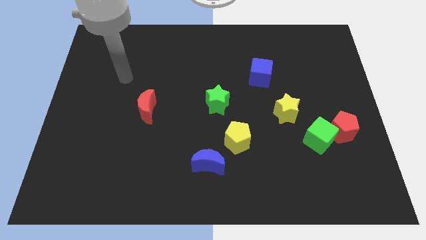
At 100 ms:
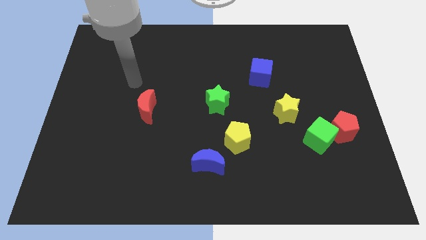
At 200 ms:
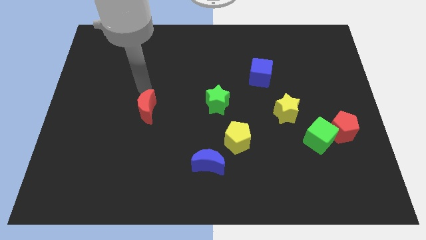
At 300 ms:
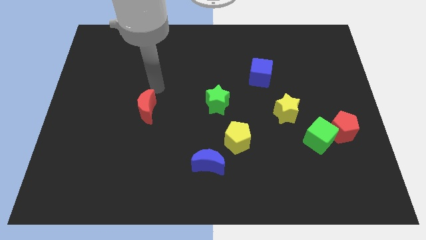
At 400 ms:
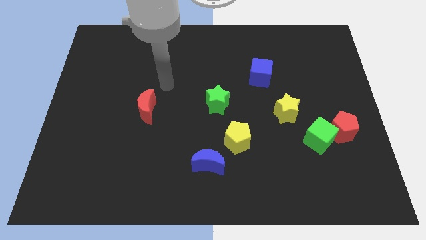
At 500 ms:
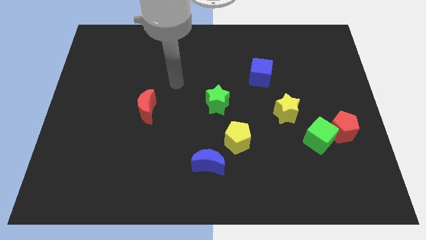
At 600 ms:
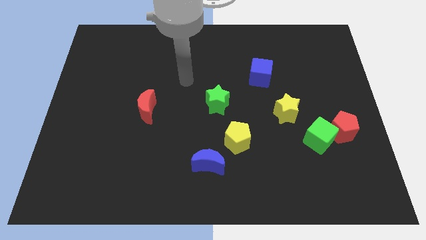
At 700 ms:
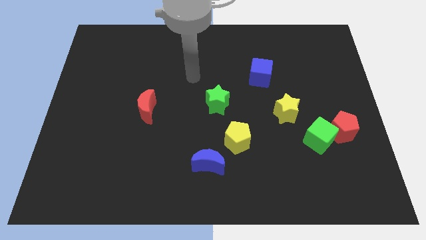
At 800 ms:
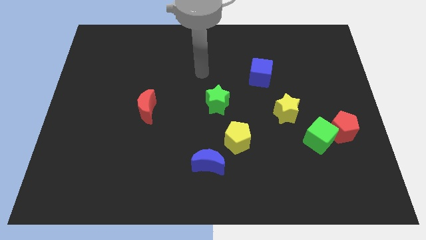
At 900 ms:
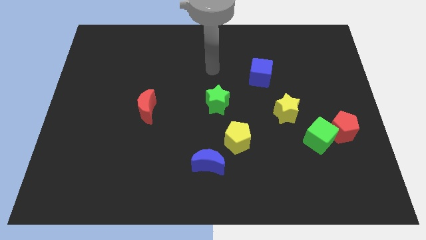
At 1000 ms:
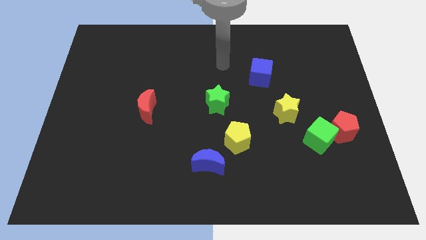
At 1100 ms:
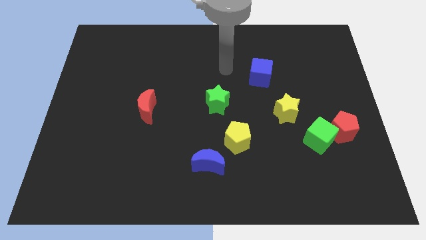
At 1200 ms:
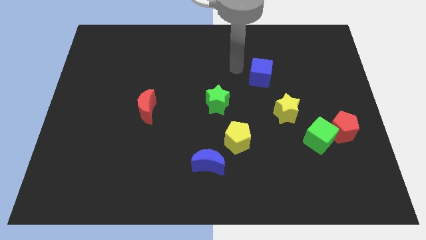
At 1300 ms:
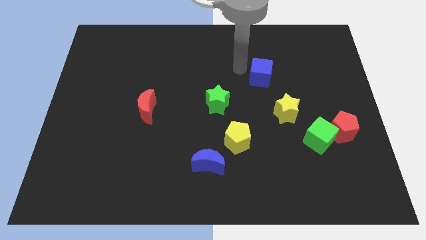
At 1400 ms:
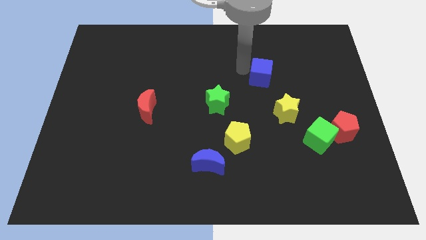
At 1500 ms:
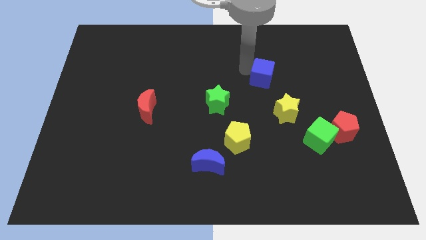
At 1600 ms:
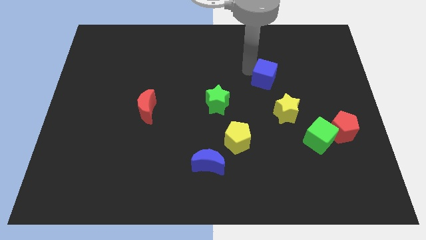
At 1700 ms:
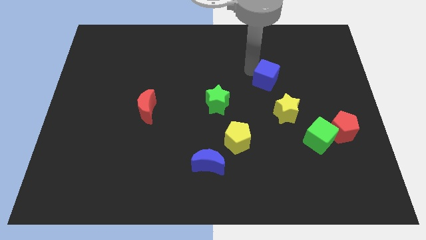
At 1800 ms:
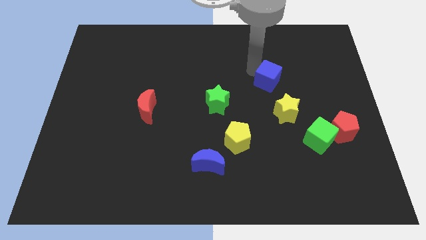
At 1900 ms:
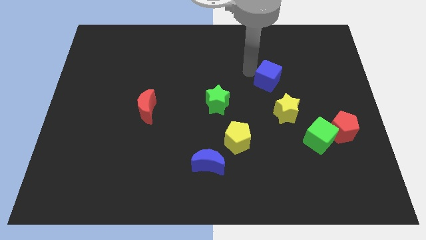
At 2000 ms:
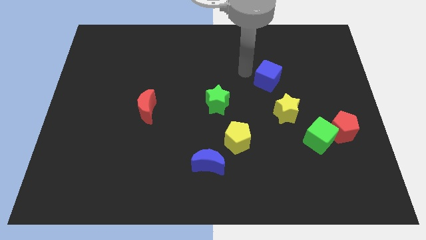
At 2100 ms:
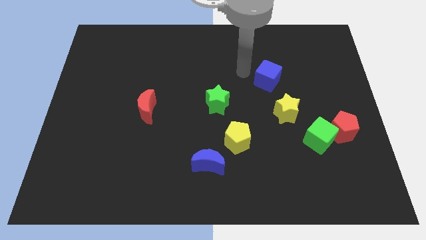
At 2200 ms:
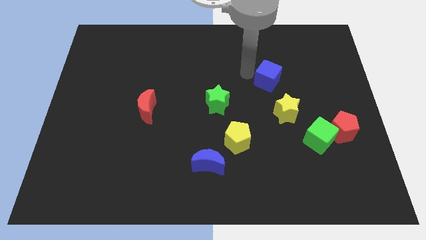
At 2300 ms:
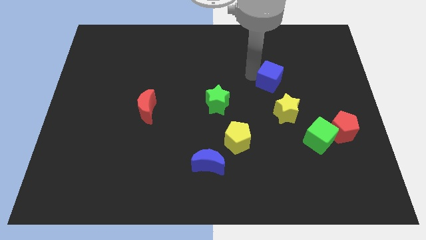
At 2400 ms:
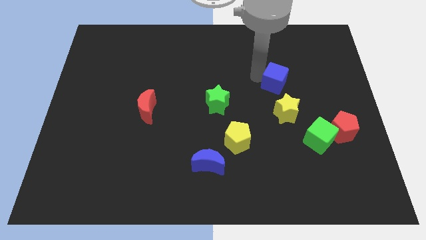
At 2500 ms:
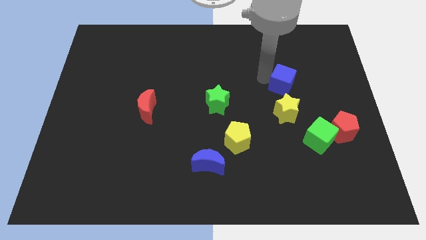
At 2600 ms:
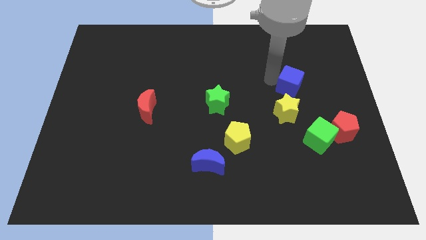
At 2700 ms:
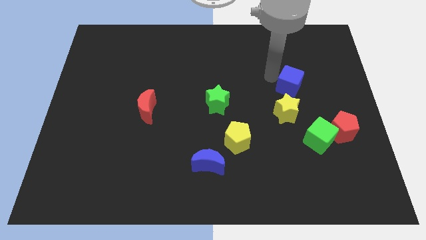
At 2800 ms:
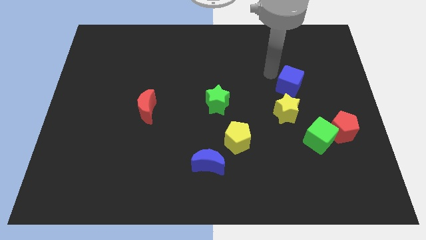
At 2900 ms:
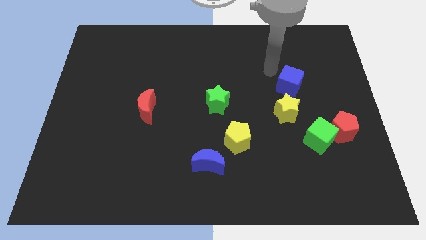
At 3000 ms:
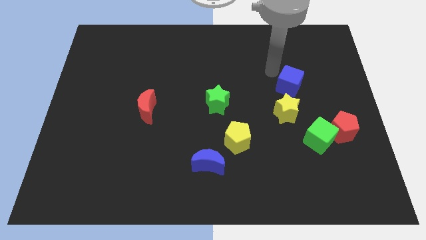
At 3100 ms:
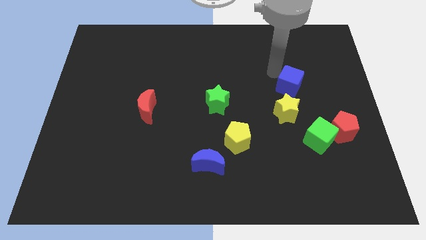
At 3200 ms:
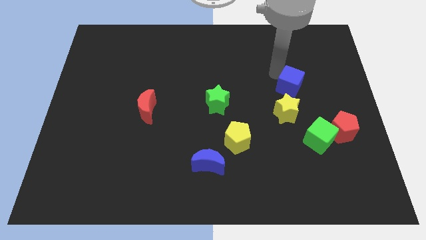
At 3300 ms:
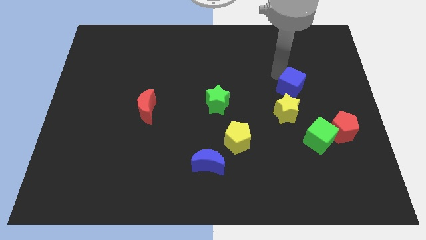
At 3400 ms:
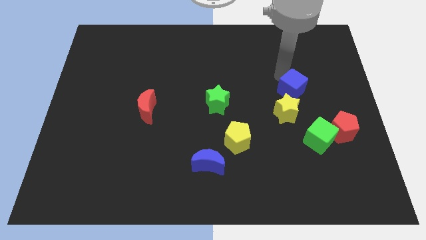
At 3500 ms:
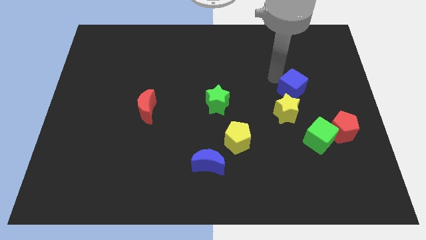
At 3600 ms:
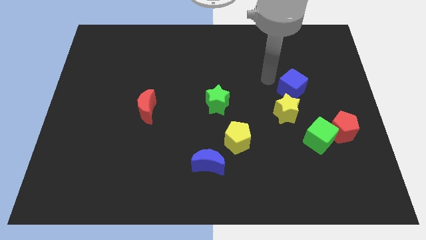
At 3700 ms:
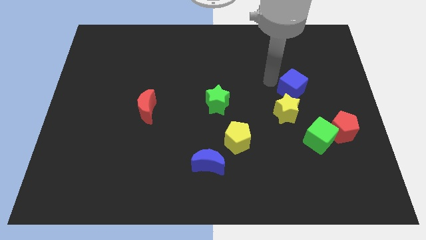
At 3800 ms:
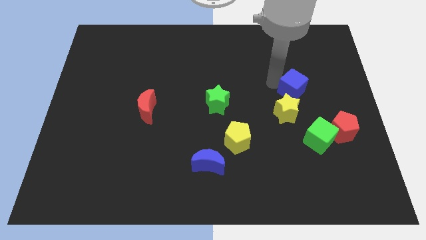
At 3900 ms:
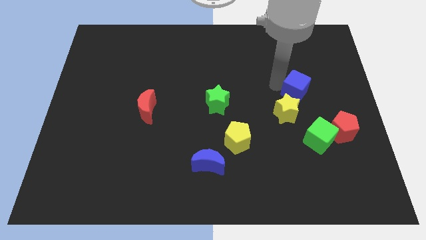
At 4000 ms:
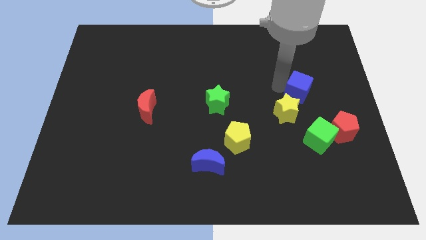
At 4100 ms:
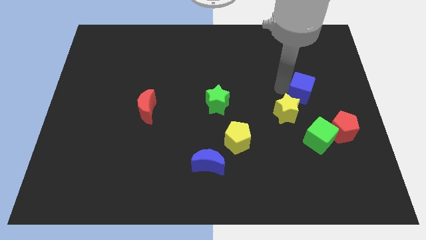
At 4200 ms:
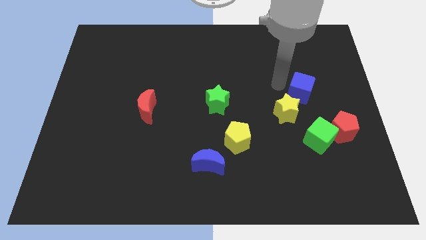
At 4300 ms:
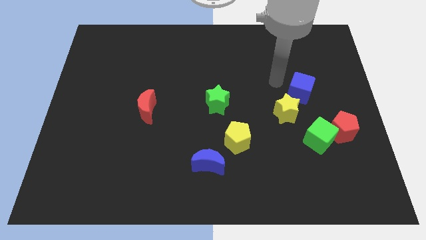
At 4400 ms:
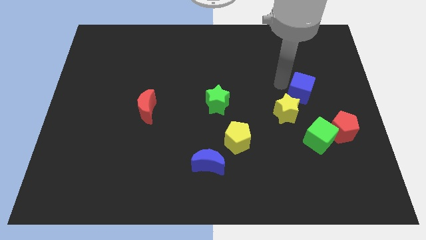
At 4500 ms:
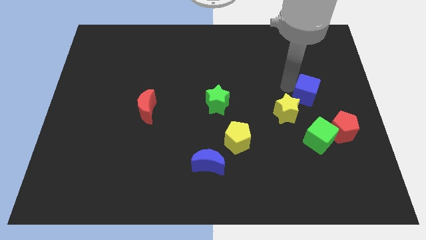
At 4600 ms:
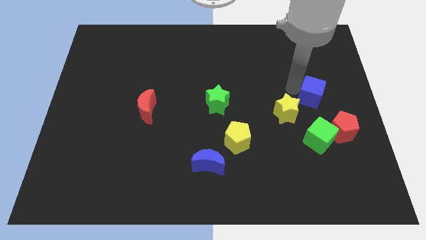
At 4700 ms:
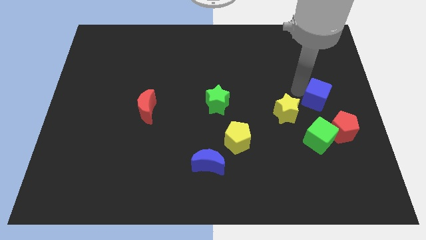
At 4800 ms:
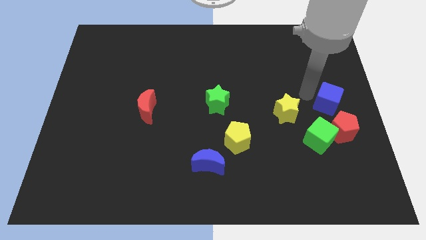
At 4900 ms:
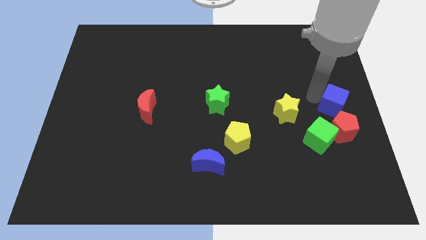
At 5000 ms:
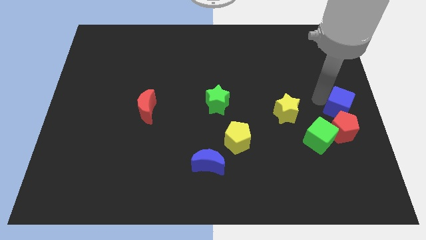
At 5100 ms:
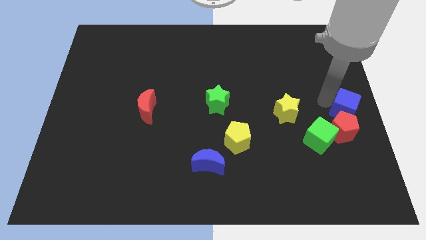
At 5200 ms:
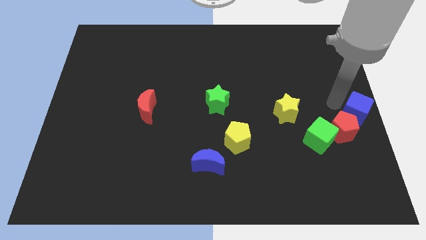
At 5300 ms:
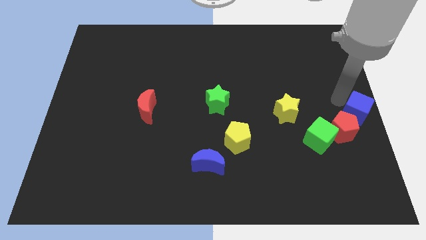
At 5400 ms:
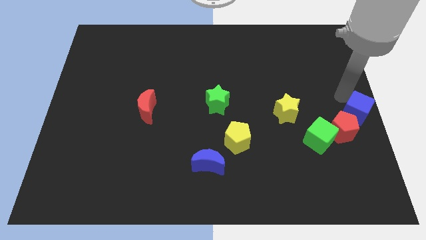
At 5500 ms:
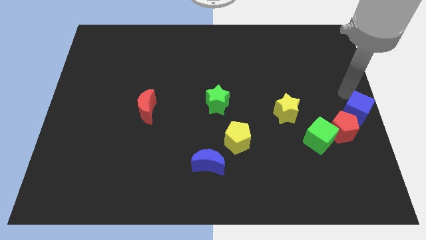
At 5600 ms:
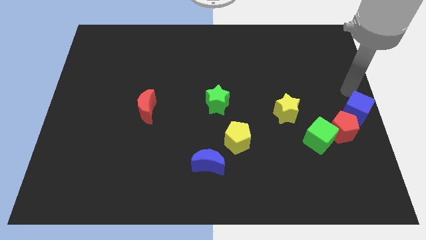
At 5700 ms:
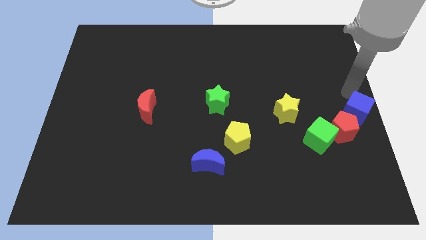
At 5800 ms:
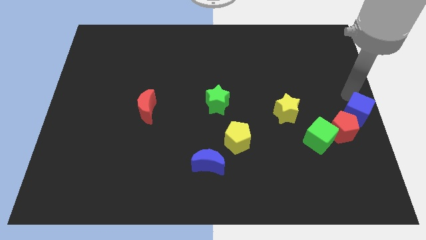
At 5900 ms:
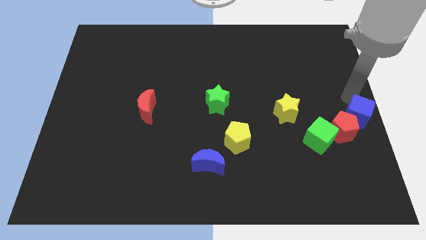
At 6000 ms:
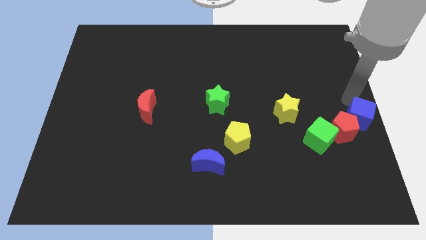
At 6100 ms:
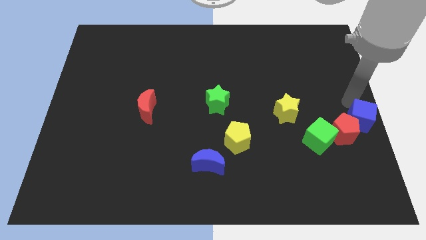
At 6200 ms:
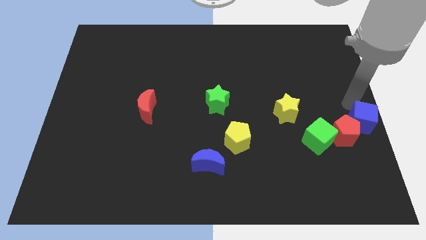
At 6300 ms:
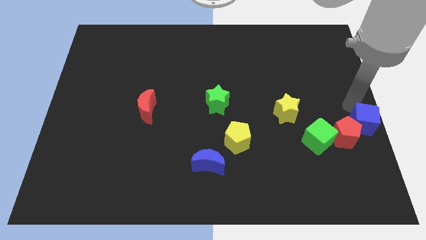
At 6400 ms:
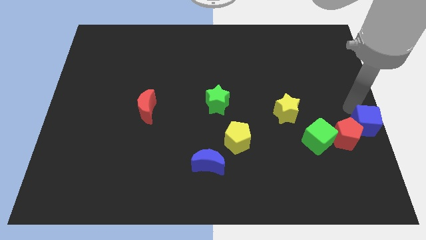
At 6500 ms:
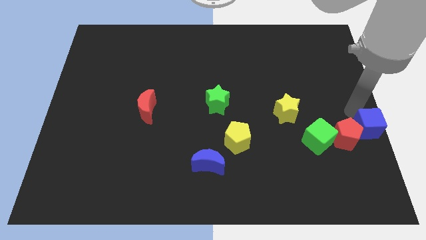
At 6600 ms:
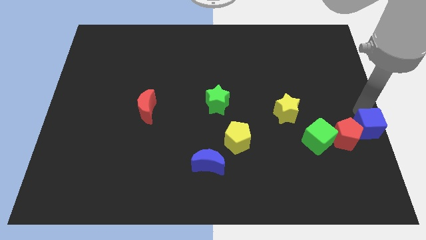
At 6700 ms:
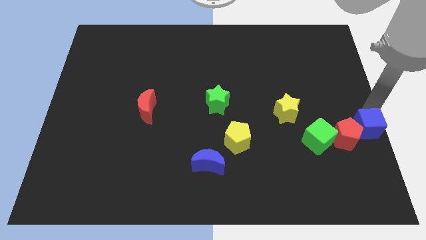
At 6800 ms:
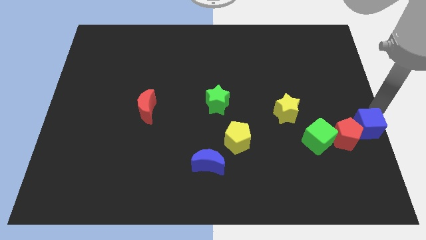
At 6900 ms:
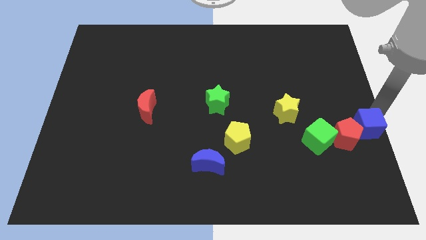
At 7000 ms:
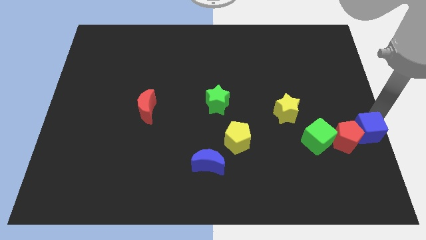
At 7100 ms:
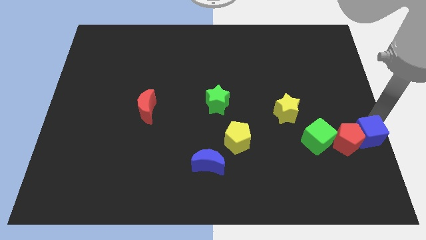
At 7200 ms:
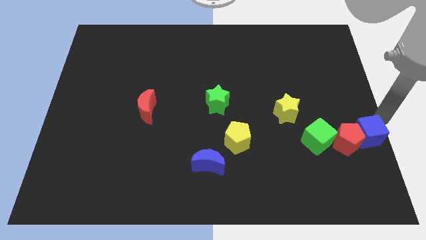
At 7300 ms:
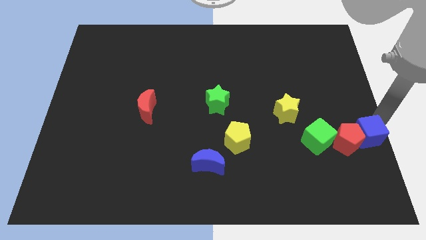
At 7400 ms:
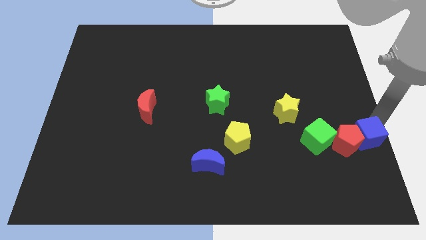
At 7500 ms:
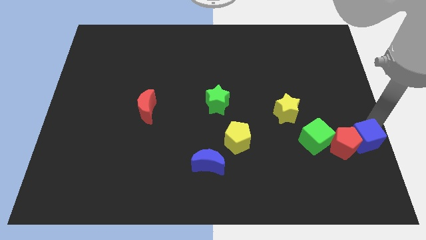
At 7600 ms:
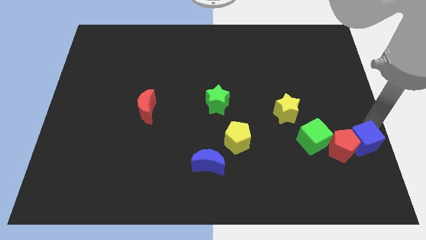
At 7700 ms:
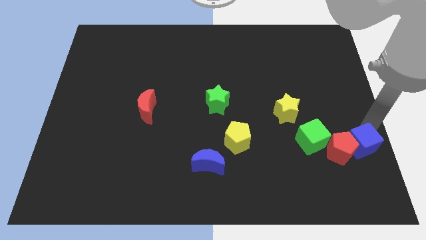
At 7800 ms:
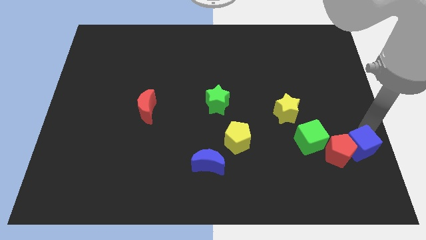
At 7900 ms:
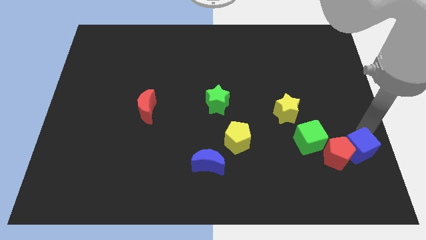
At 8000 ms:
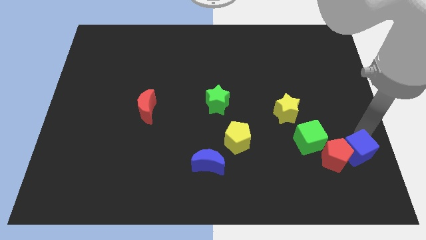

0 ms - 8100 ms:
move the blue cube to the bottom right of the green cube
